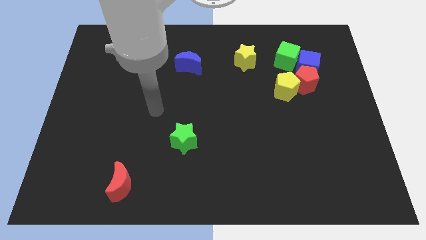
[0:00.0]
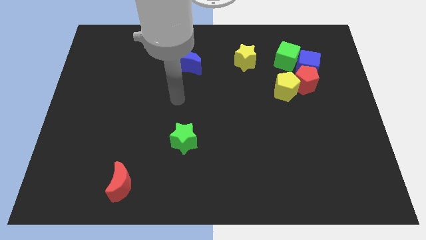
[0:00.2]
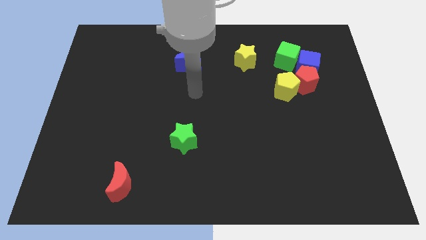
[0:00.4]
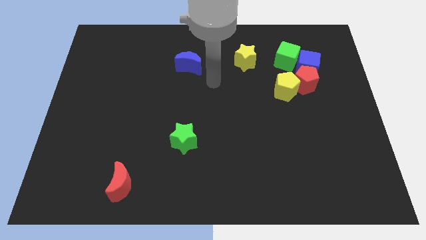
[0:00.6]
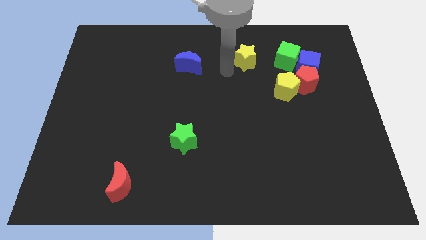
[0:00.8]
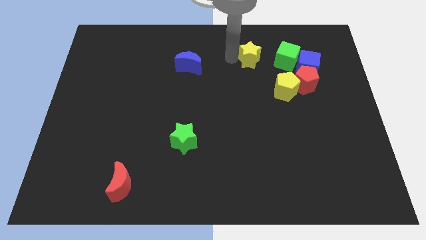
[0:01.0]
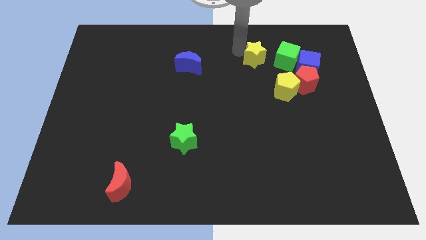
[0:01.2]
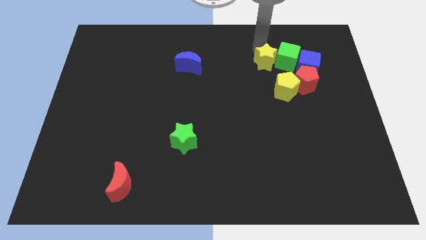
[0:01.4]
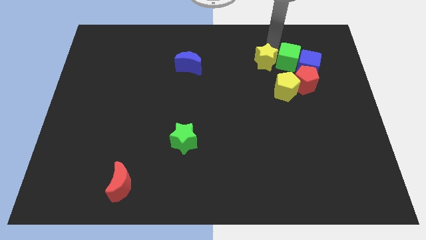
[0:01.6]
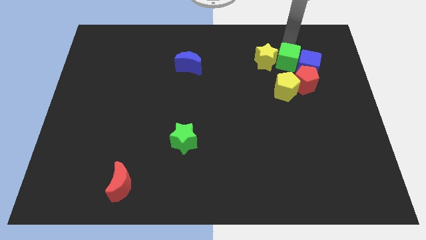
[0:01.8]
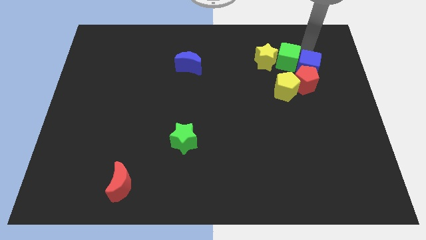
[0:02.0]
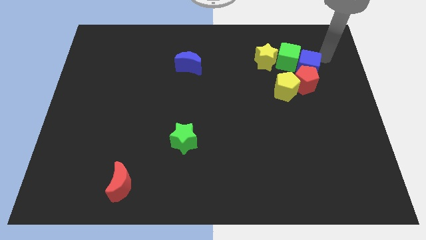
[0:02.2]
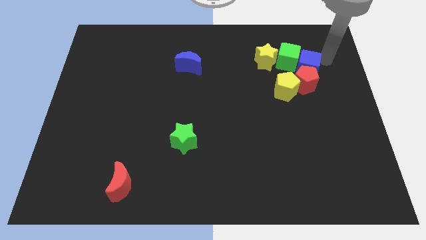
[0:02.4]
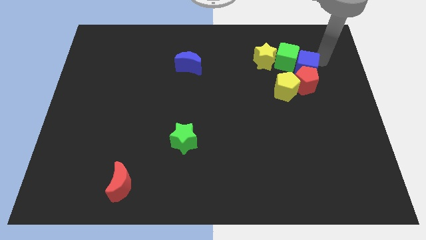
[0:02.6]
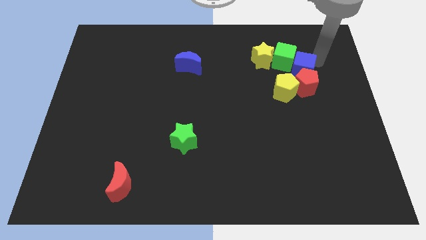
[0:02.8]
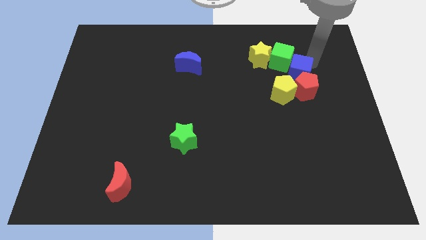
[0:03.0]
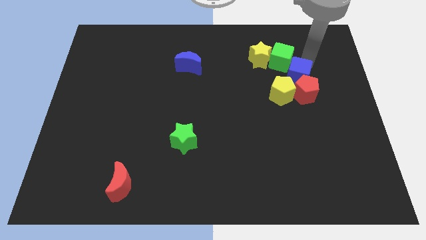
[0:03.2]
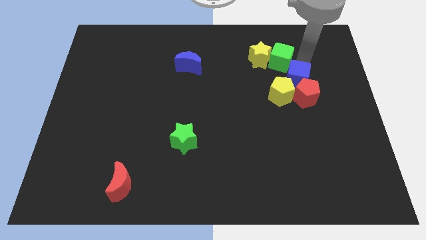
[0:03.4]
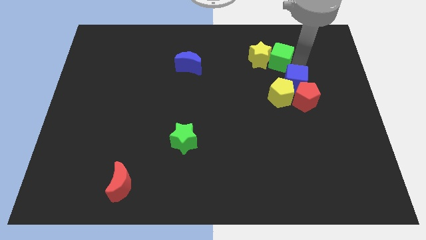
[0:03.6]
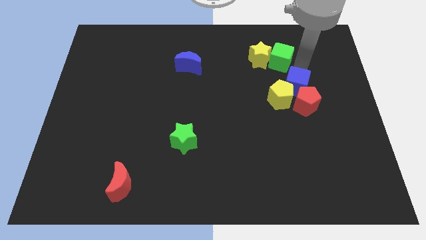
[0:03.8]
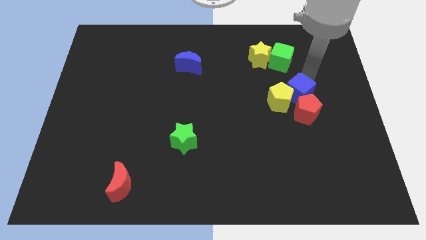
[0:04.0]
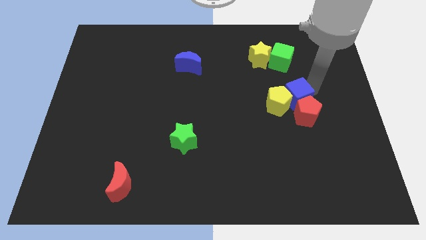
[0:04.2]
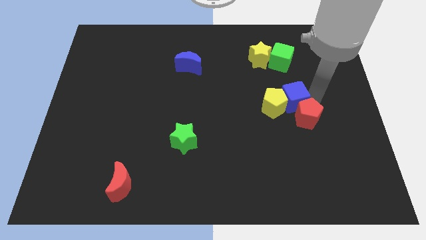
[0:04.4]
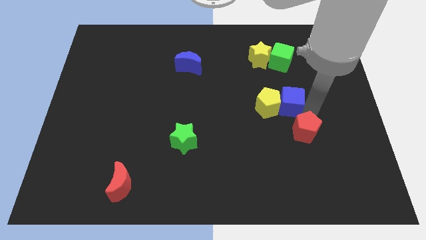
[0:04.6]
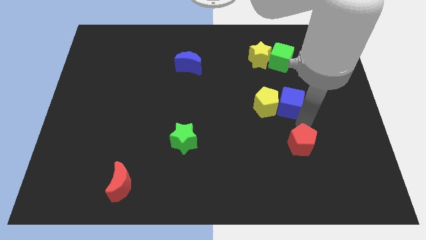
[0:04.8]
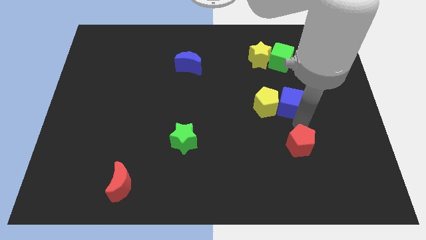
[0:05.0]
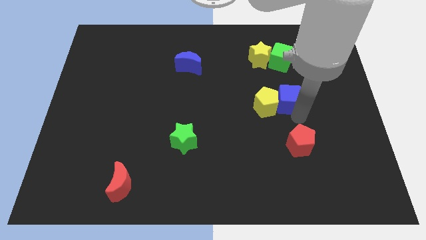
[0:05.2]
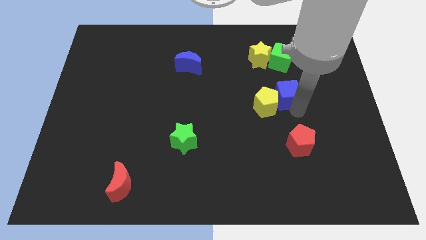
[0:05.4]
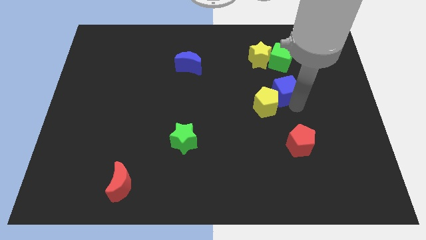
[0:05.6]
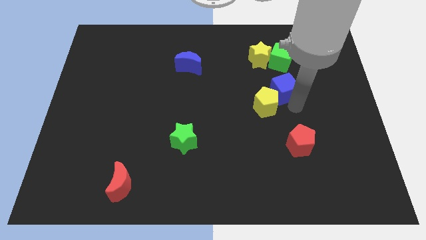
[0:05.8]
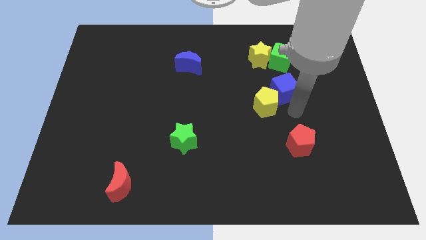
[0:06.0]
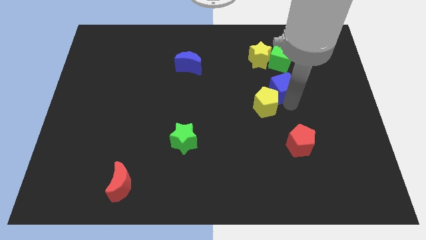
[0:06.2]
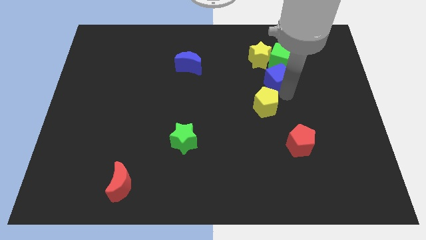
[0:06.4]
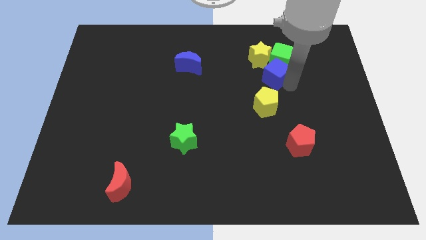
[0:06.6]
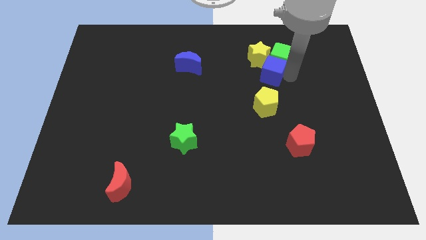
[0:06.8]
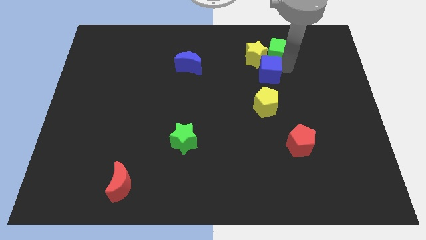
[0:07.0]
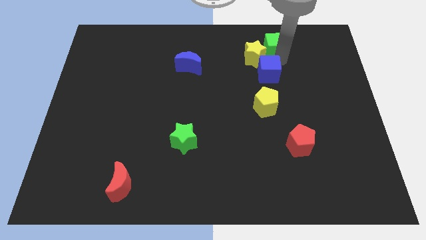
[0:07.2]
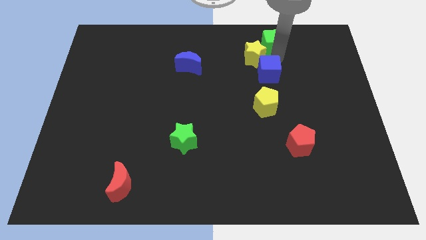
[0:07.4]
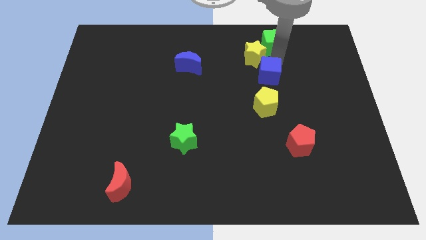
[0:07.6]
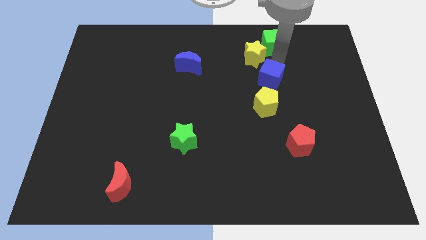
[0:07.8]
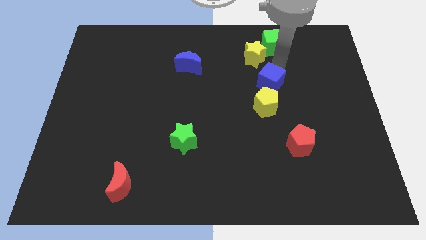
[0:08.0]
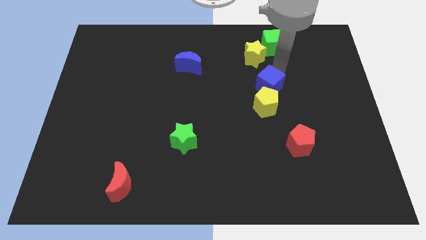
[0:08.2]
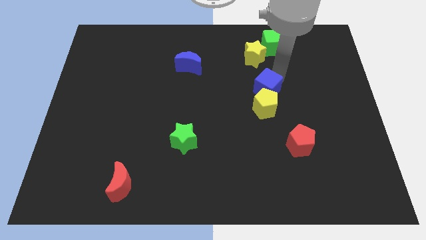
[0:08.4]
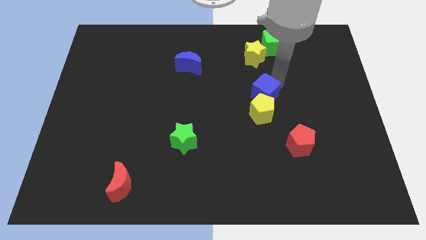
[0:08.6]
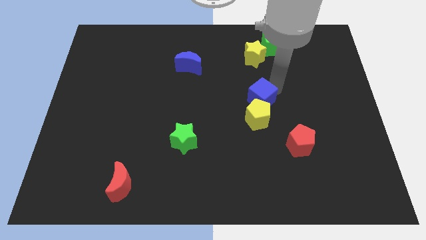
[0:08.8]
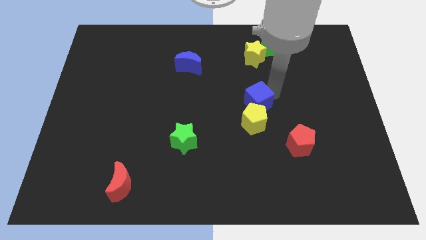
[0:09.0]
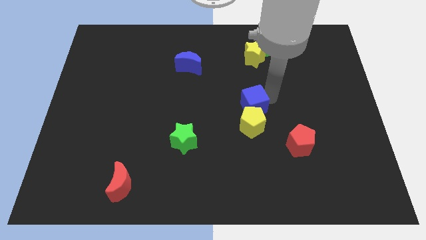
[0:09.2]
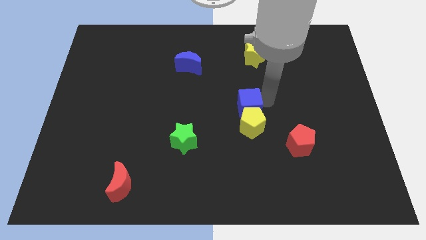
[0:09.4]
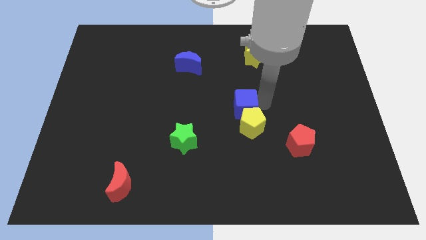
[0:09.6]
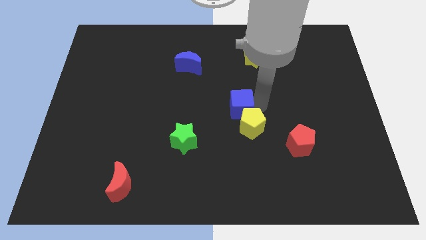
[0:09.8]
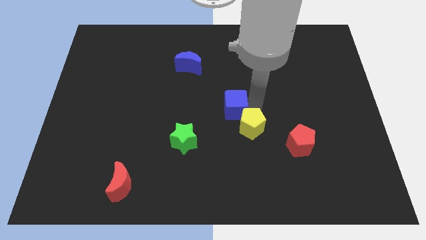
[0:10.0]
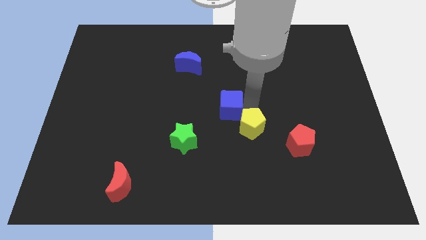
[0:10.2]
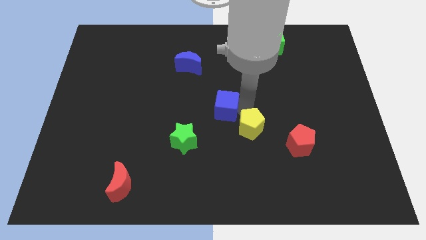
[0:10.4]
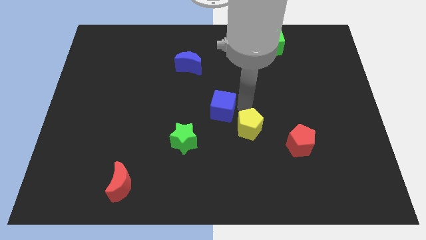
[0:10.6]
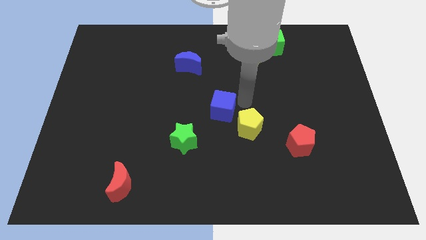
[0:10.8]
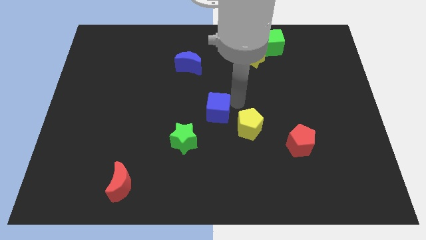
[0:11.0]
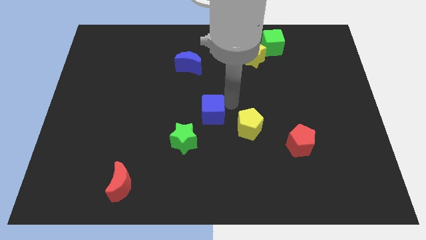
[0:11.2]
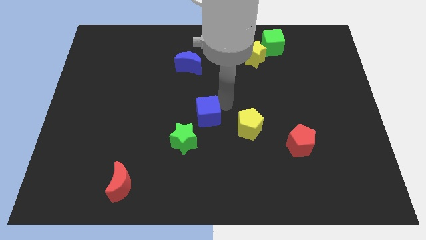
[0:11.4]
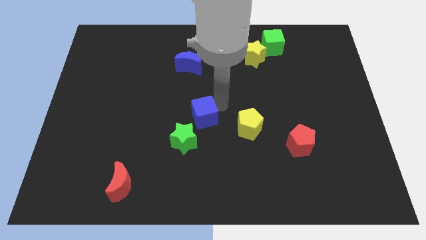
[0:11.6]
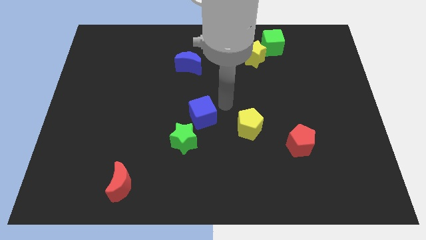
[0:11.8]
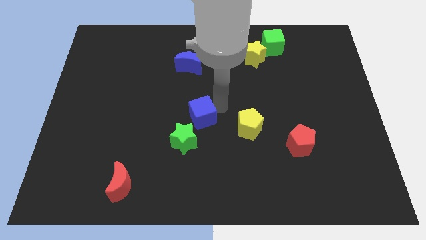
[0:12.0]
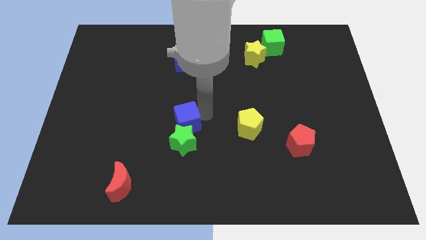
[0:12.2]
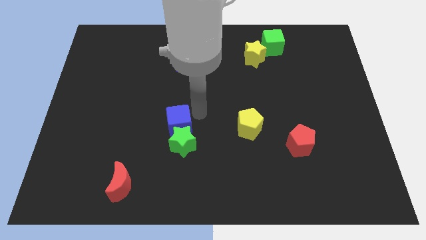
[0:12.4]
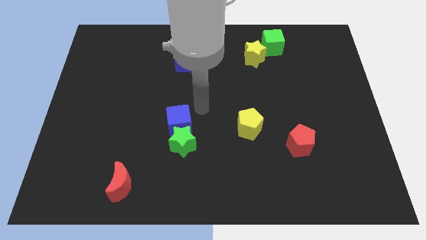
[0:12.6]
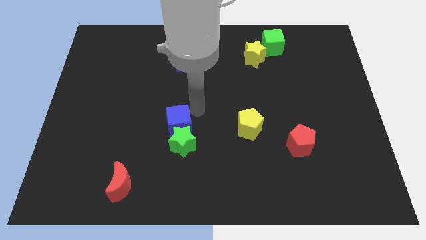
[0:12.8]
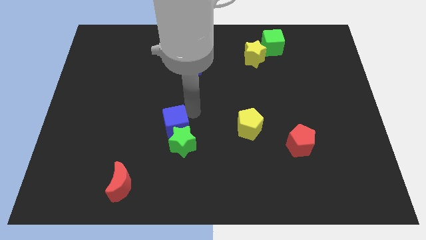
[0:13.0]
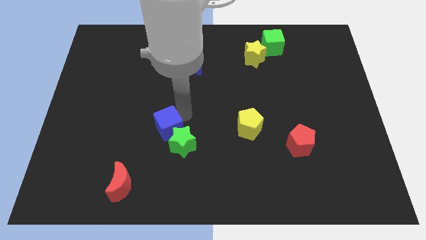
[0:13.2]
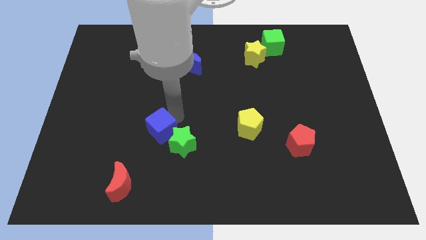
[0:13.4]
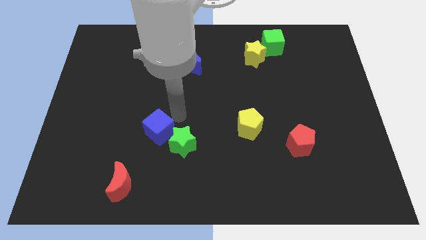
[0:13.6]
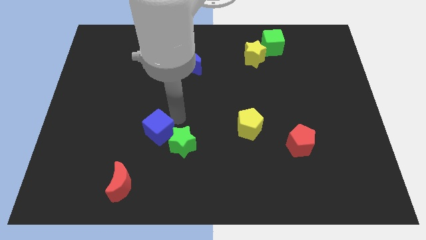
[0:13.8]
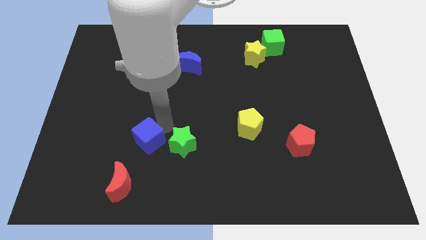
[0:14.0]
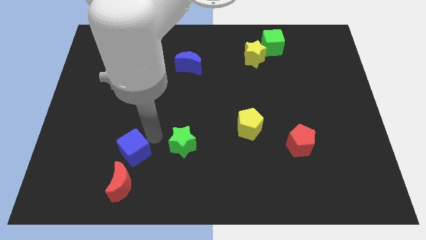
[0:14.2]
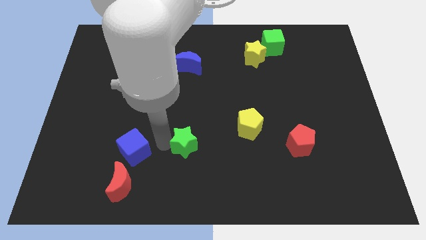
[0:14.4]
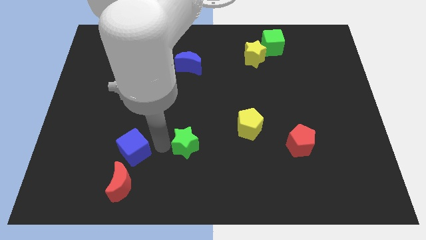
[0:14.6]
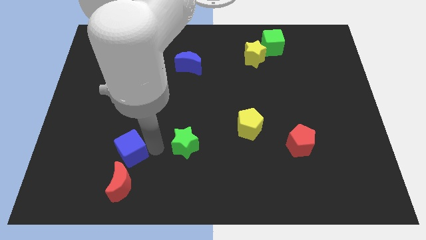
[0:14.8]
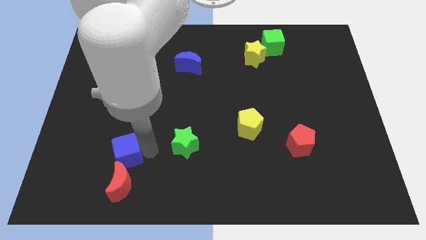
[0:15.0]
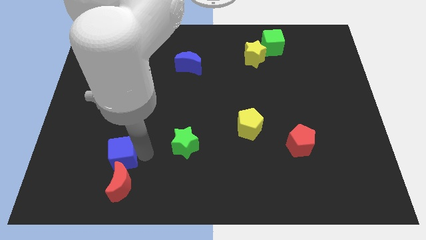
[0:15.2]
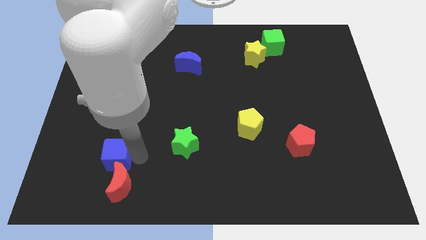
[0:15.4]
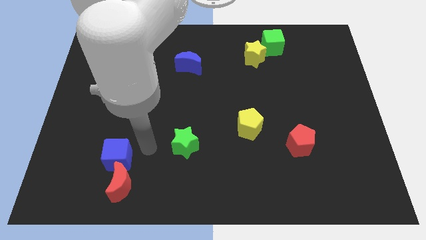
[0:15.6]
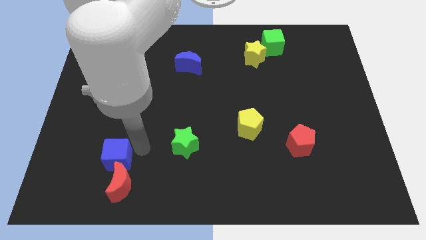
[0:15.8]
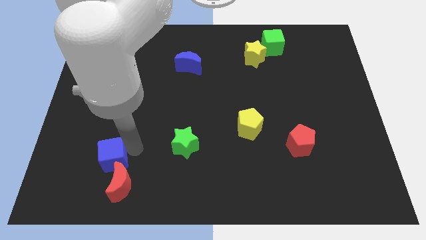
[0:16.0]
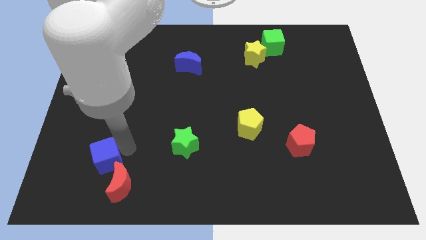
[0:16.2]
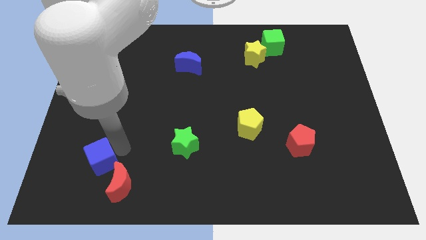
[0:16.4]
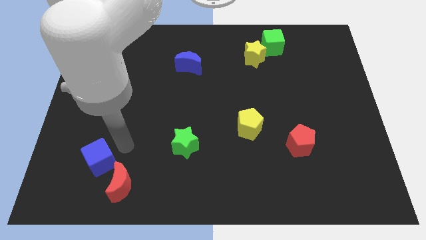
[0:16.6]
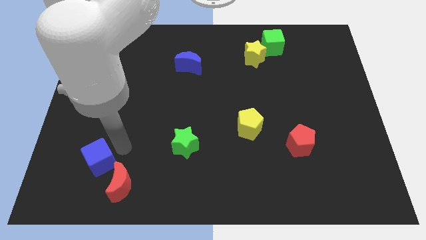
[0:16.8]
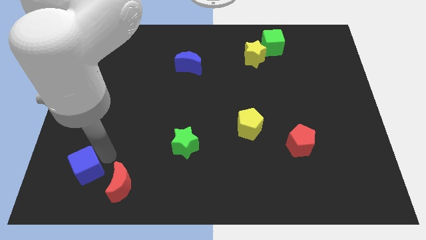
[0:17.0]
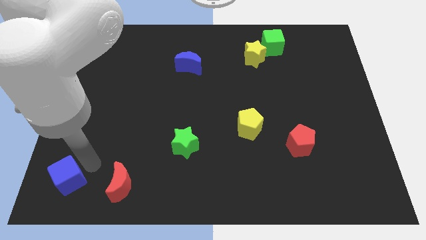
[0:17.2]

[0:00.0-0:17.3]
move the blue cube to the lower left corner
